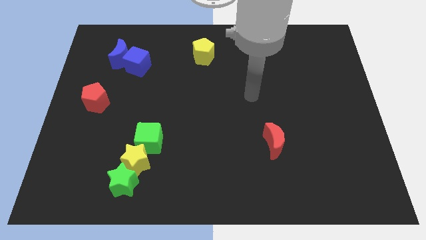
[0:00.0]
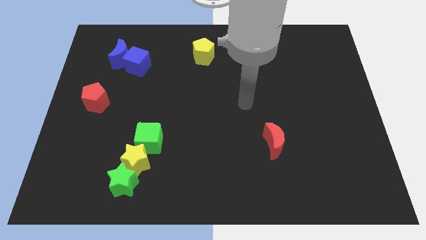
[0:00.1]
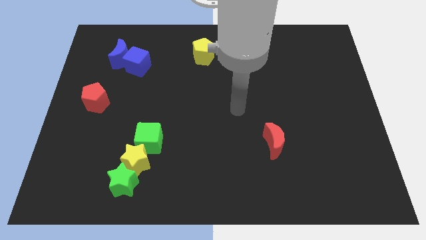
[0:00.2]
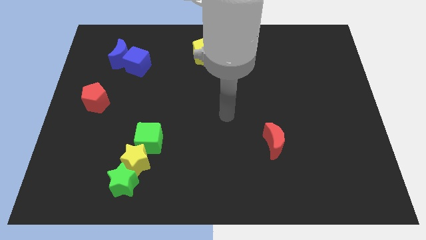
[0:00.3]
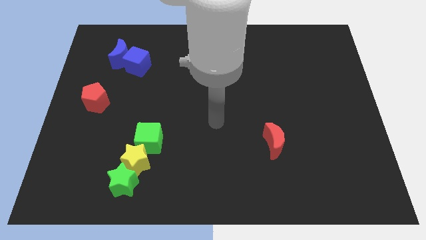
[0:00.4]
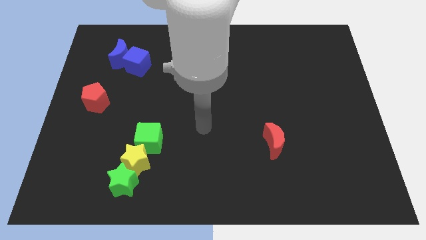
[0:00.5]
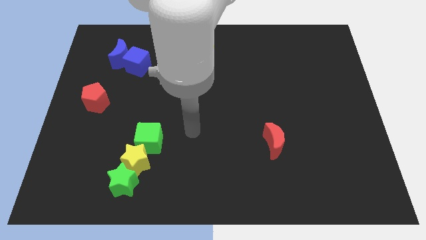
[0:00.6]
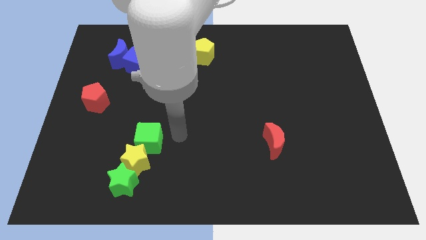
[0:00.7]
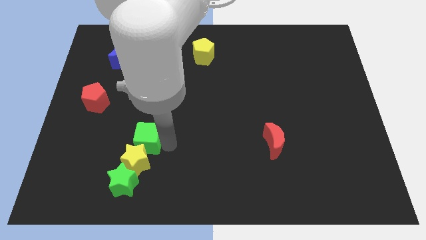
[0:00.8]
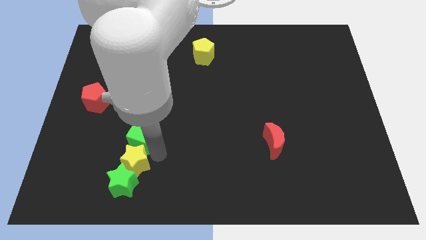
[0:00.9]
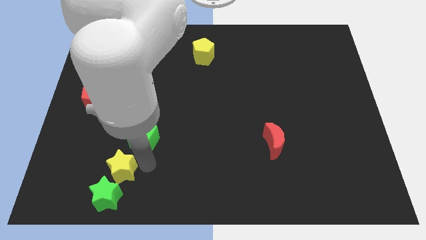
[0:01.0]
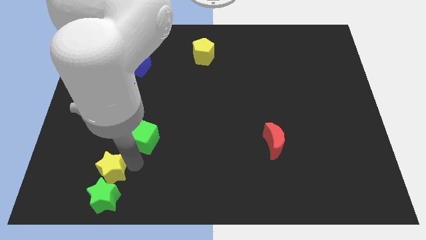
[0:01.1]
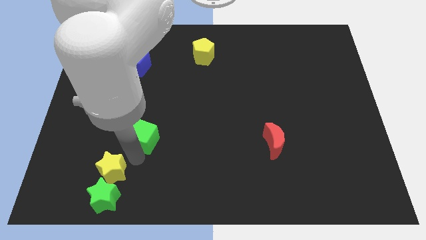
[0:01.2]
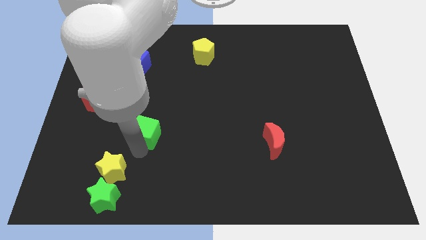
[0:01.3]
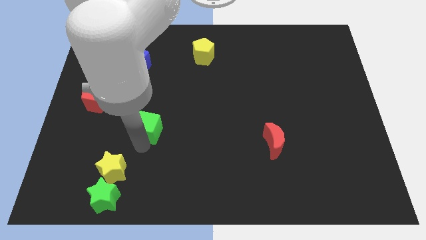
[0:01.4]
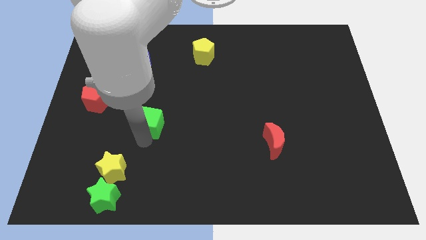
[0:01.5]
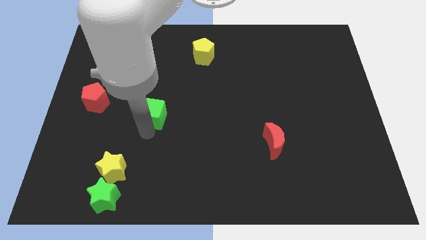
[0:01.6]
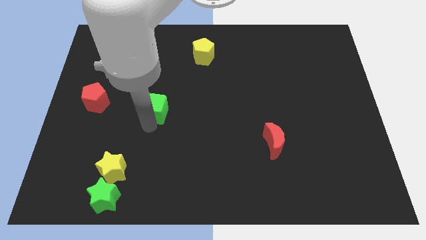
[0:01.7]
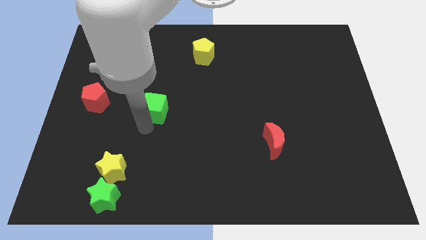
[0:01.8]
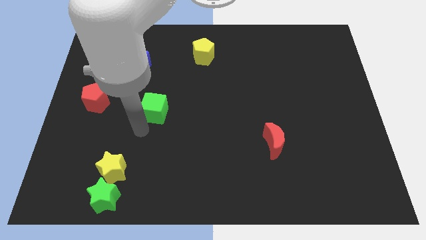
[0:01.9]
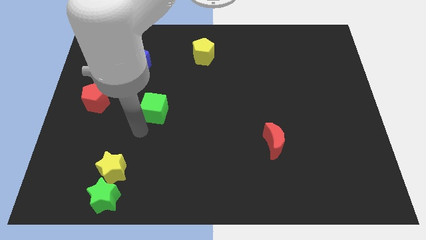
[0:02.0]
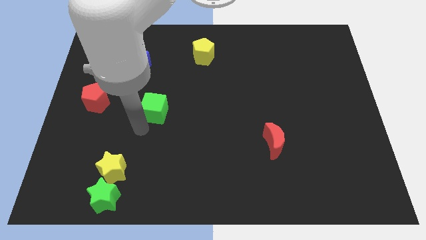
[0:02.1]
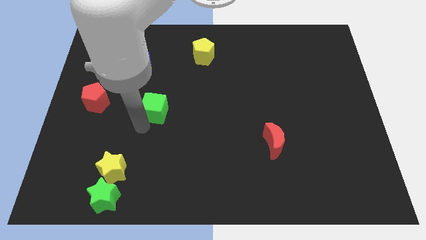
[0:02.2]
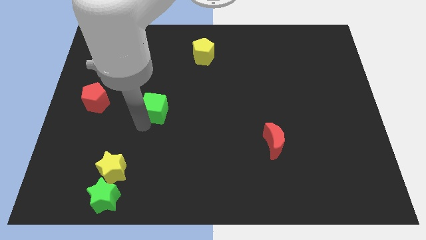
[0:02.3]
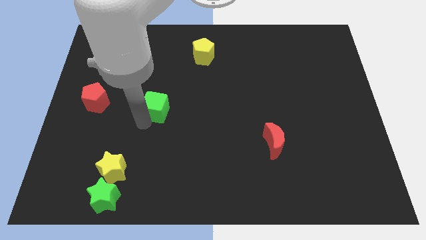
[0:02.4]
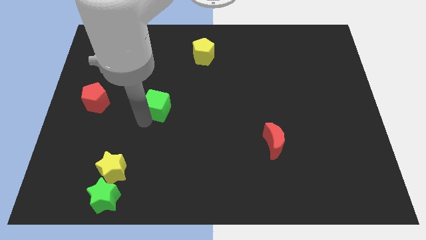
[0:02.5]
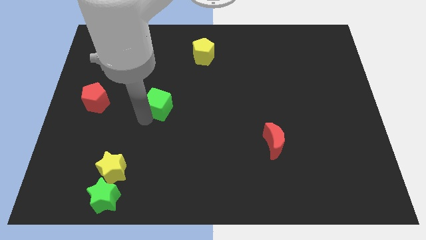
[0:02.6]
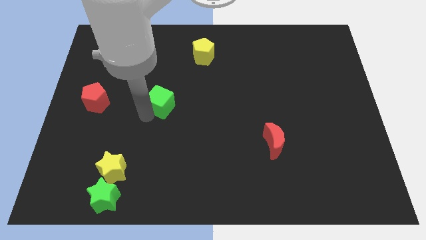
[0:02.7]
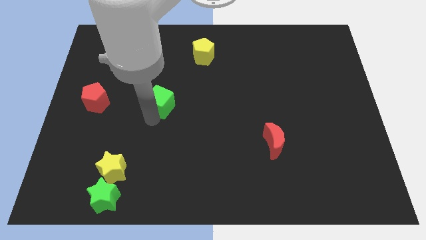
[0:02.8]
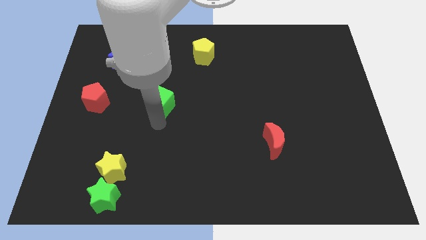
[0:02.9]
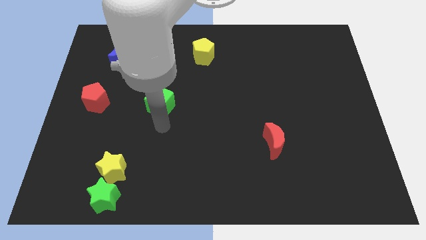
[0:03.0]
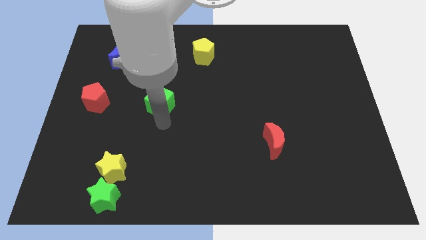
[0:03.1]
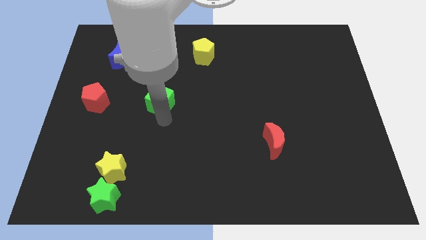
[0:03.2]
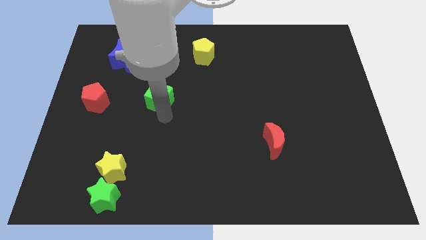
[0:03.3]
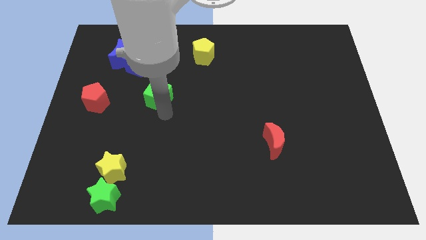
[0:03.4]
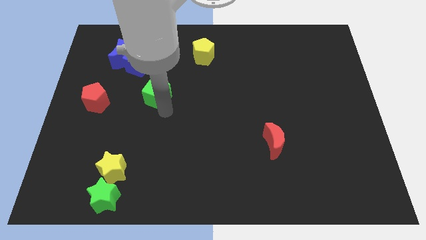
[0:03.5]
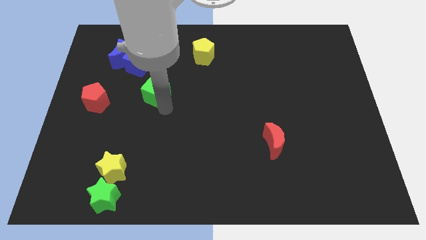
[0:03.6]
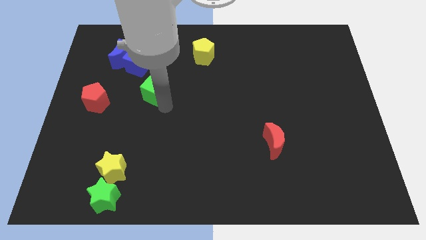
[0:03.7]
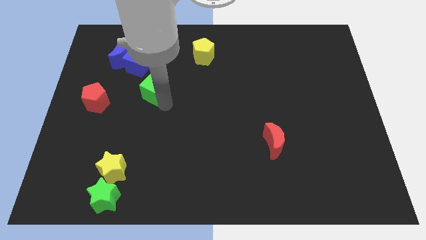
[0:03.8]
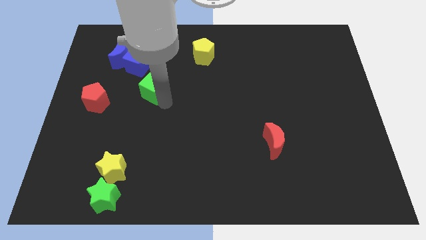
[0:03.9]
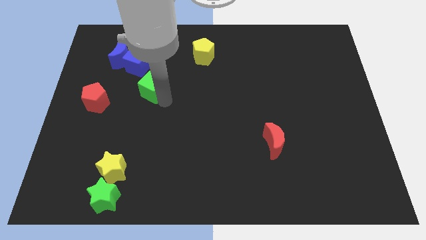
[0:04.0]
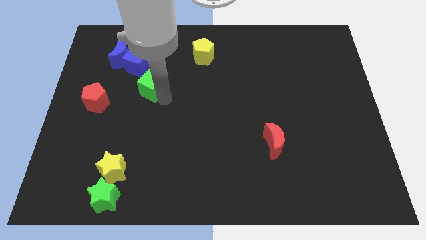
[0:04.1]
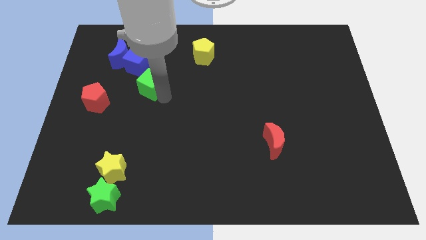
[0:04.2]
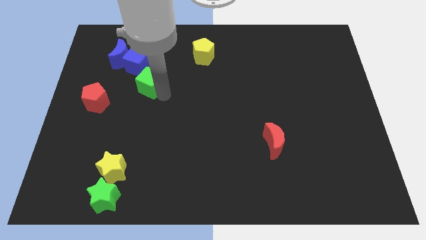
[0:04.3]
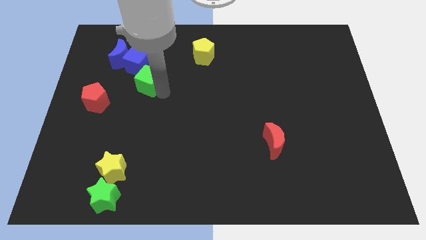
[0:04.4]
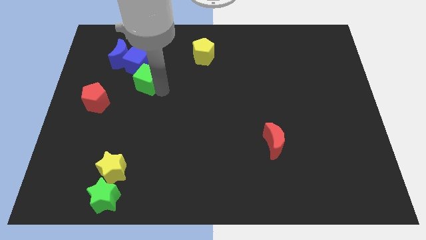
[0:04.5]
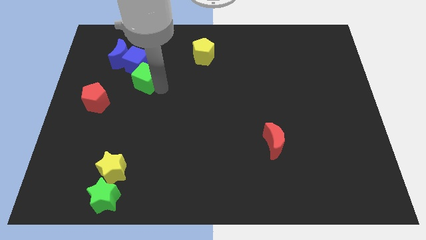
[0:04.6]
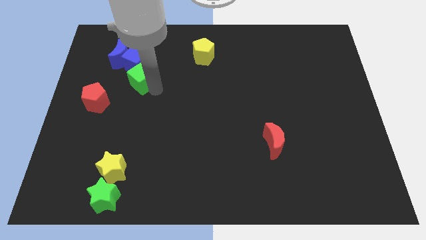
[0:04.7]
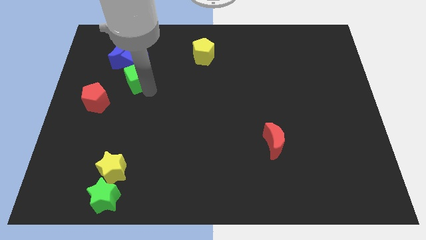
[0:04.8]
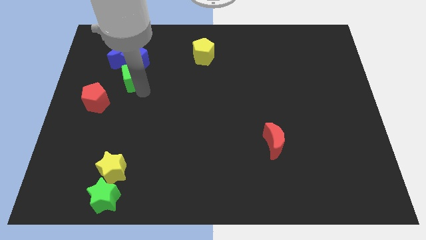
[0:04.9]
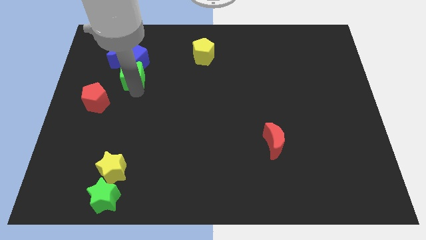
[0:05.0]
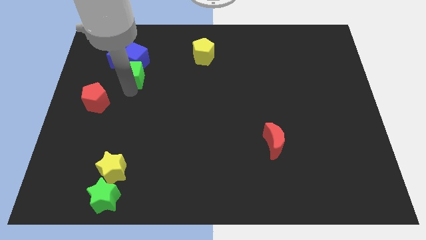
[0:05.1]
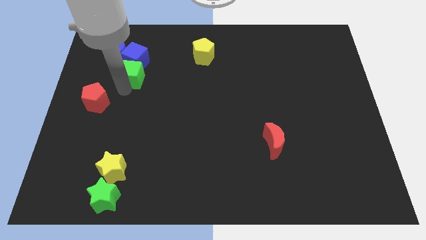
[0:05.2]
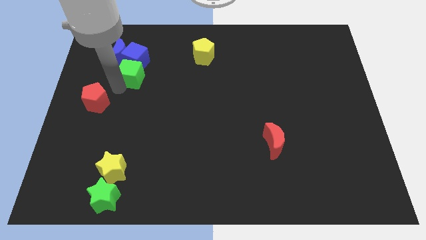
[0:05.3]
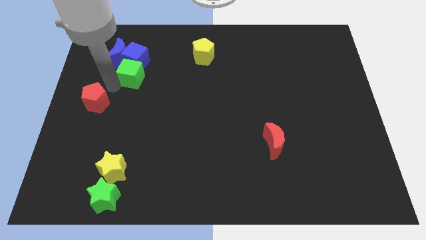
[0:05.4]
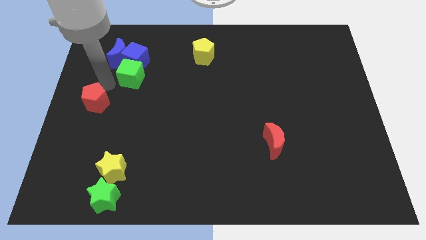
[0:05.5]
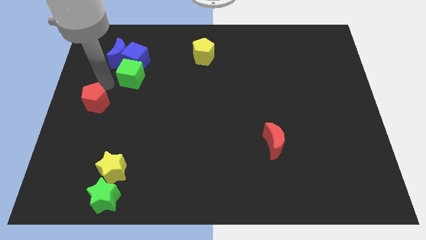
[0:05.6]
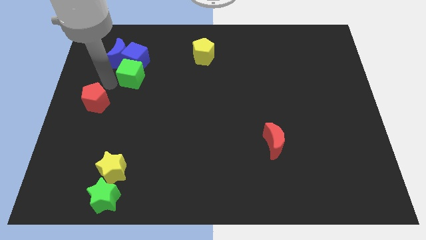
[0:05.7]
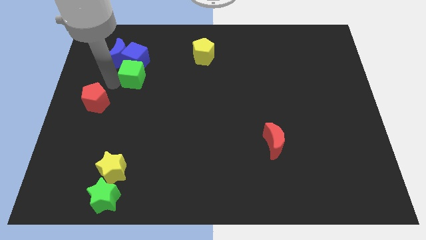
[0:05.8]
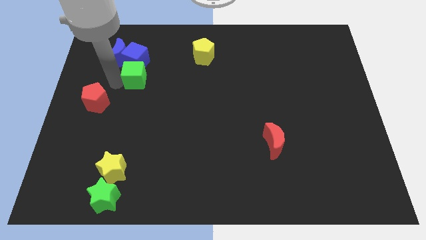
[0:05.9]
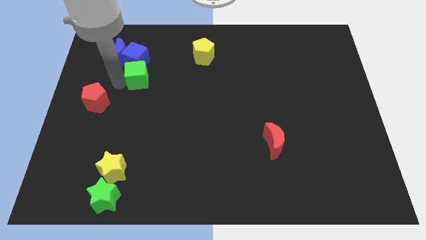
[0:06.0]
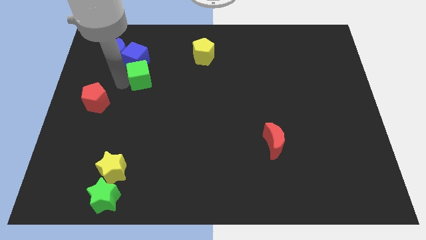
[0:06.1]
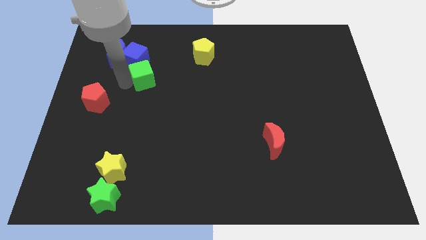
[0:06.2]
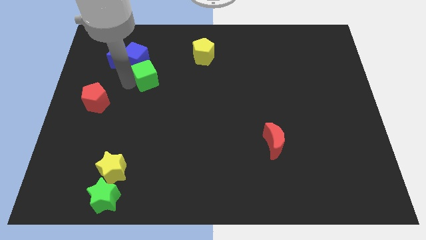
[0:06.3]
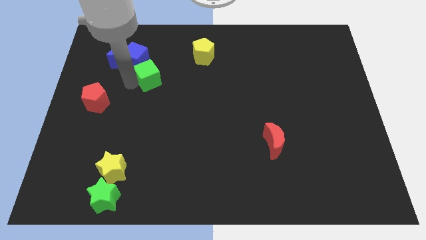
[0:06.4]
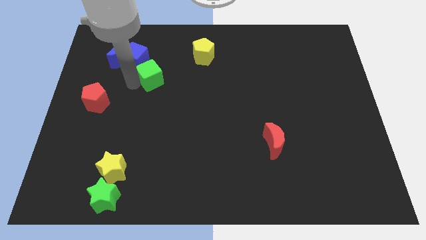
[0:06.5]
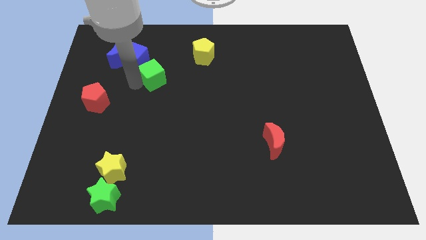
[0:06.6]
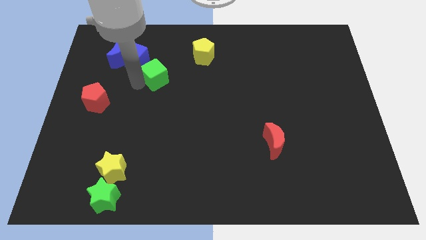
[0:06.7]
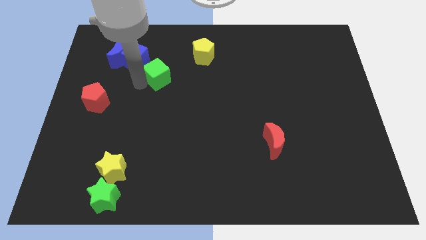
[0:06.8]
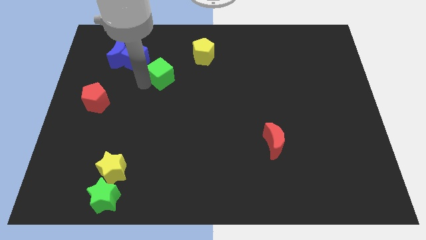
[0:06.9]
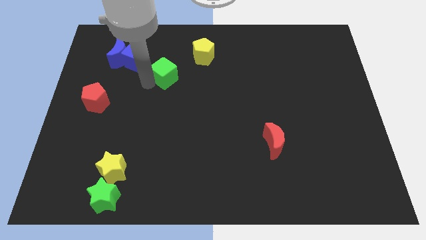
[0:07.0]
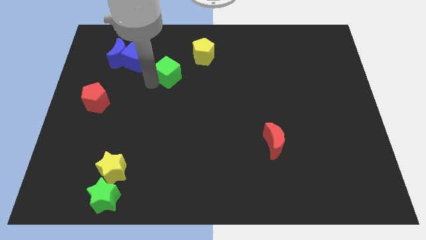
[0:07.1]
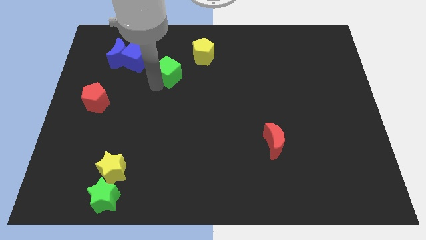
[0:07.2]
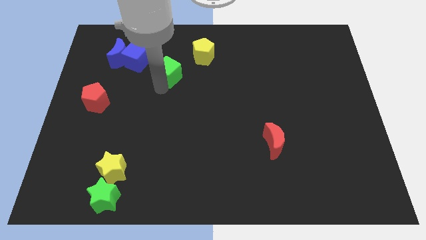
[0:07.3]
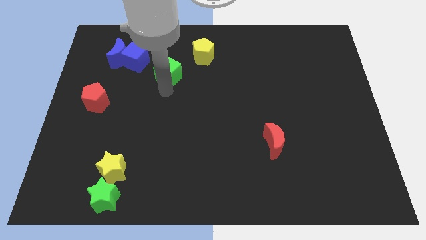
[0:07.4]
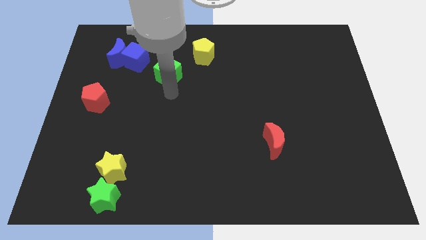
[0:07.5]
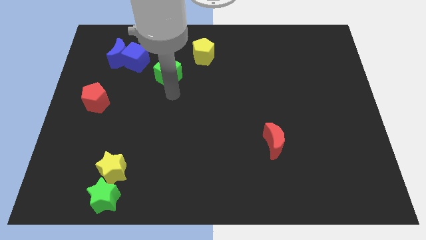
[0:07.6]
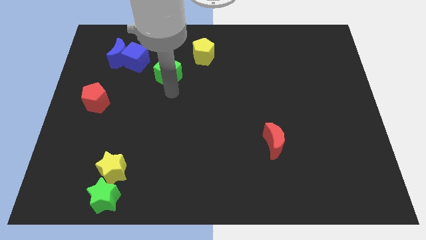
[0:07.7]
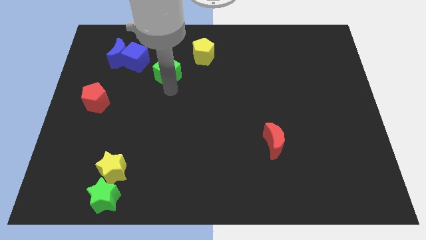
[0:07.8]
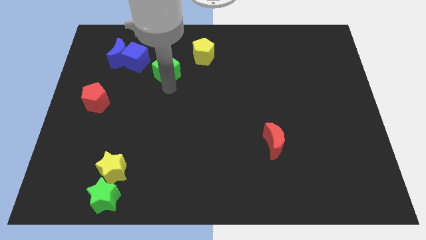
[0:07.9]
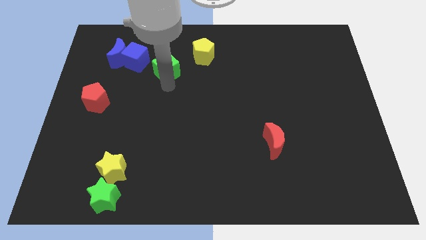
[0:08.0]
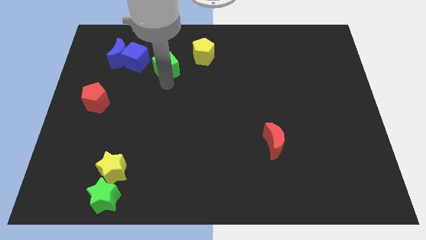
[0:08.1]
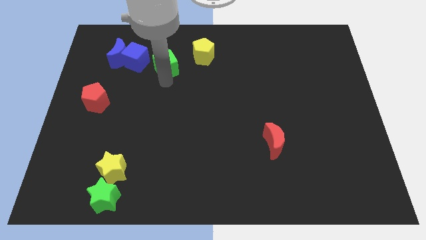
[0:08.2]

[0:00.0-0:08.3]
slide the green cube to the left side of the yellow pentagon
